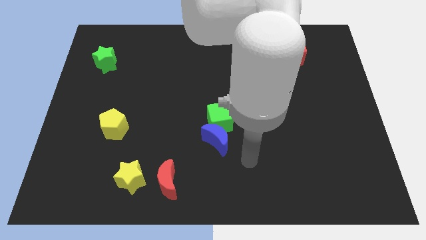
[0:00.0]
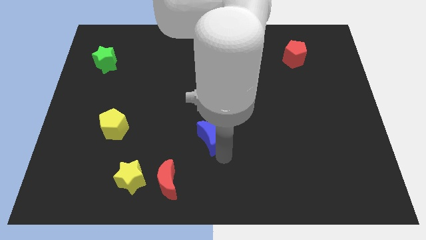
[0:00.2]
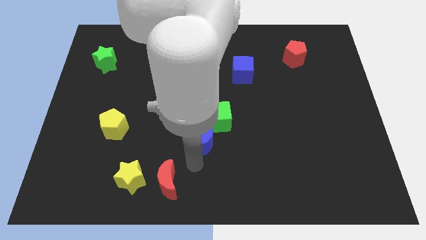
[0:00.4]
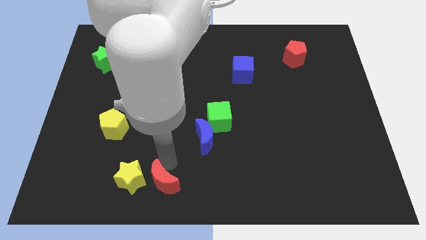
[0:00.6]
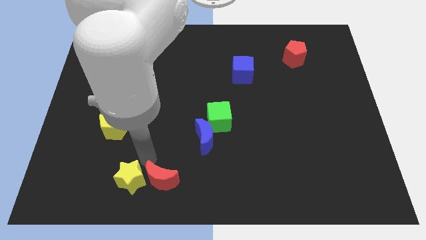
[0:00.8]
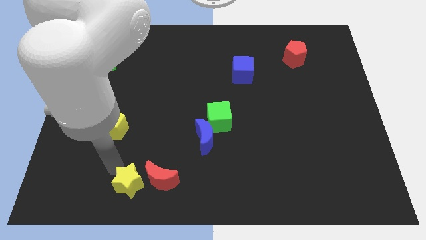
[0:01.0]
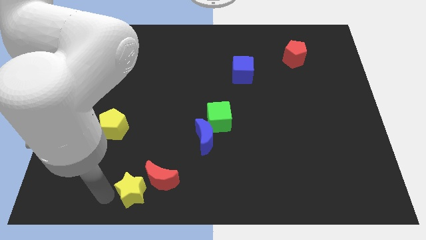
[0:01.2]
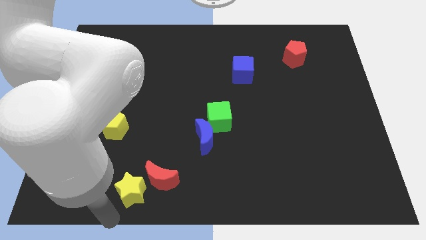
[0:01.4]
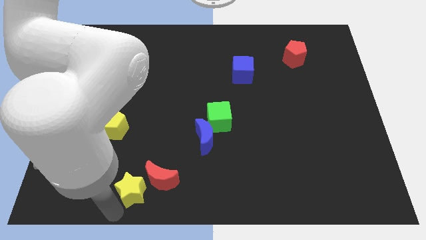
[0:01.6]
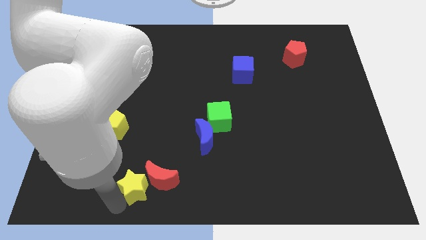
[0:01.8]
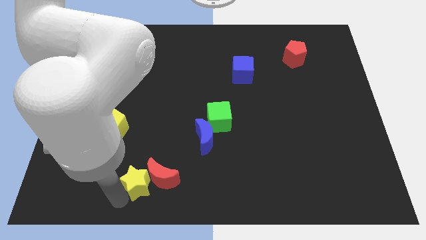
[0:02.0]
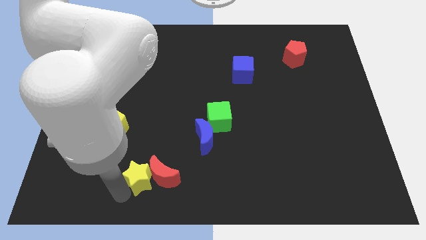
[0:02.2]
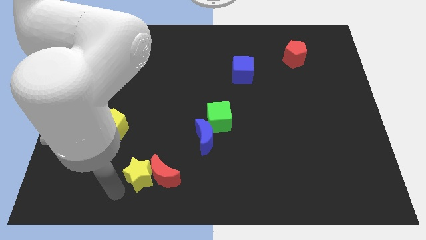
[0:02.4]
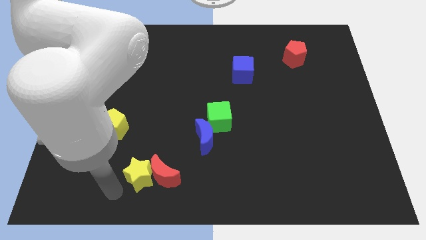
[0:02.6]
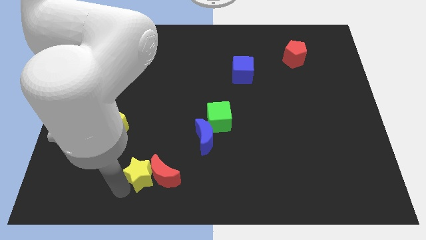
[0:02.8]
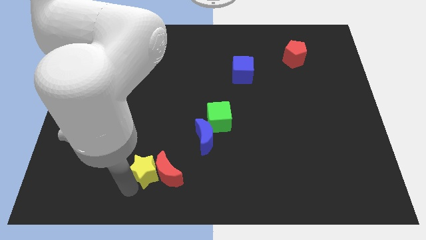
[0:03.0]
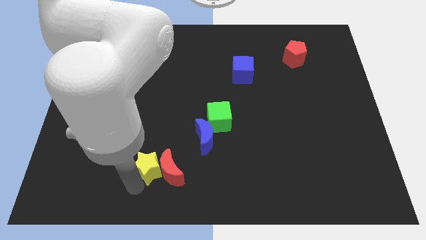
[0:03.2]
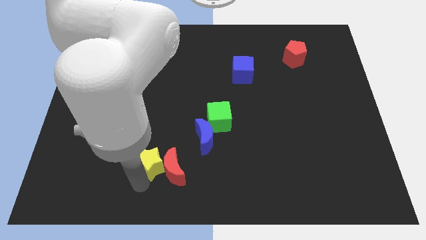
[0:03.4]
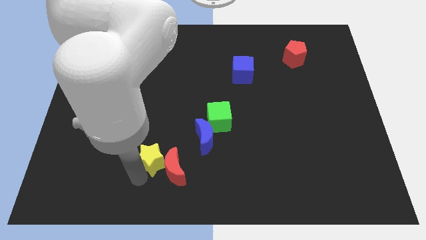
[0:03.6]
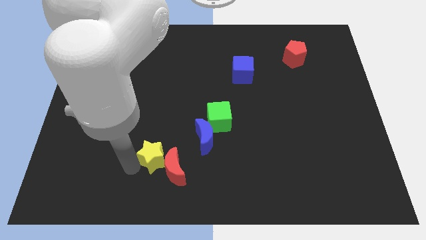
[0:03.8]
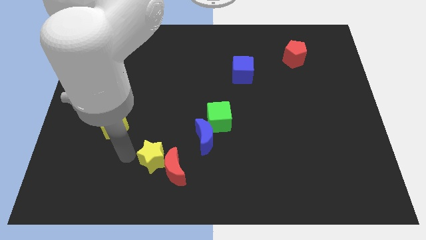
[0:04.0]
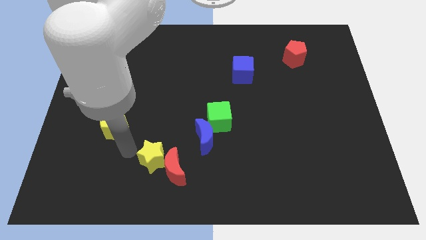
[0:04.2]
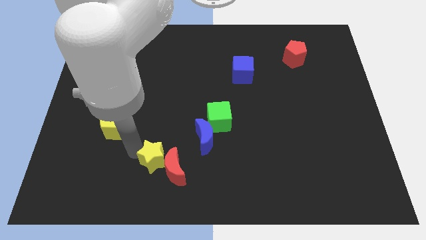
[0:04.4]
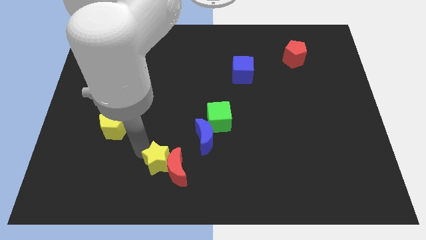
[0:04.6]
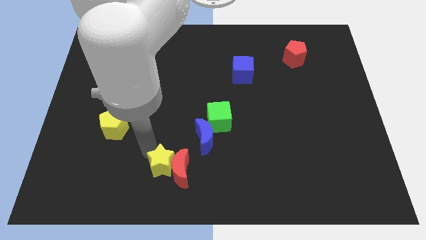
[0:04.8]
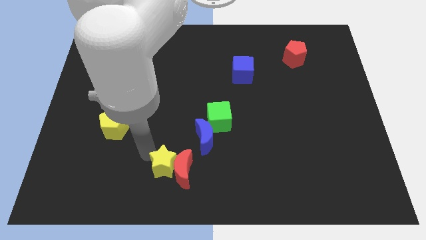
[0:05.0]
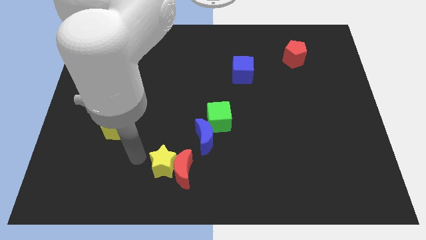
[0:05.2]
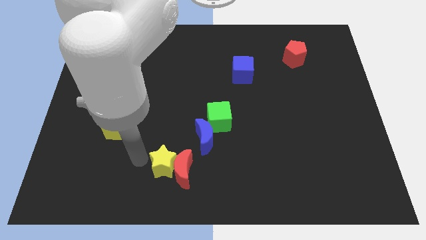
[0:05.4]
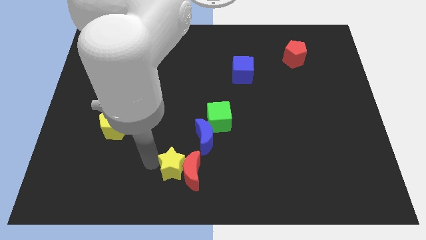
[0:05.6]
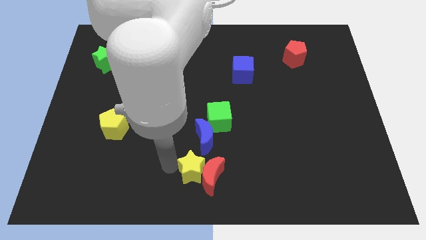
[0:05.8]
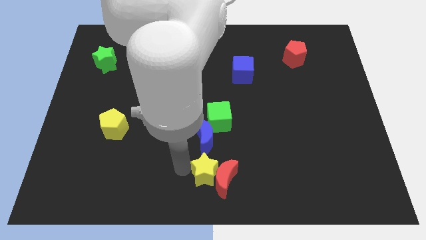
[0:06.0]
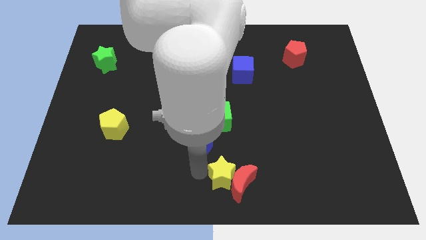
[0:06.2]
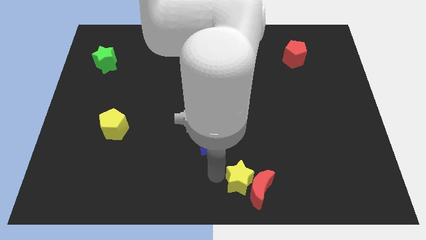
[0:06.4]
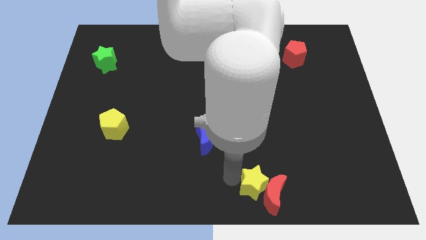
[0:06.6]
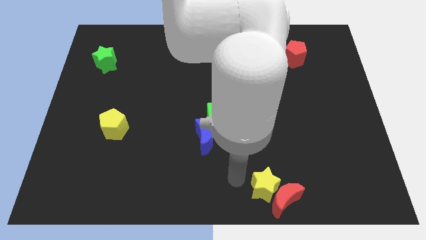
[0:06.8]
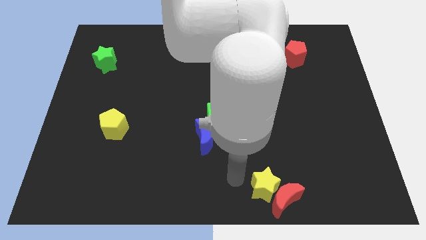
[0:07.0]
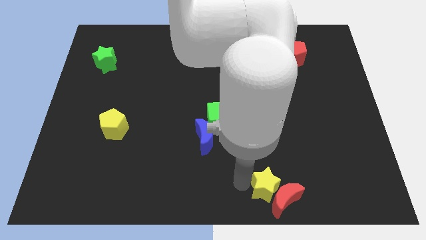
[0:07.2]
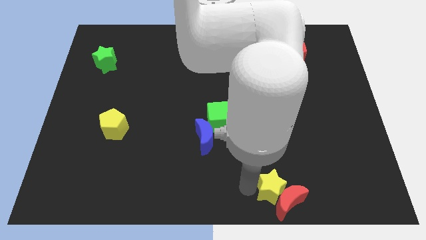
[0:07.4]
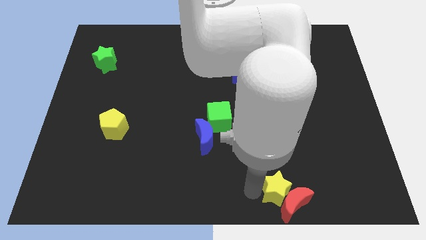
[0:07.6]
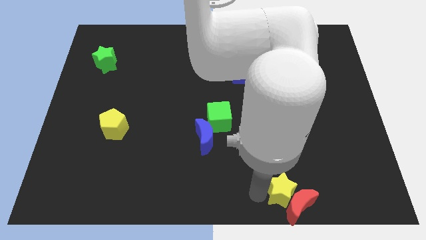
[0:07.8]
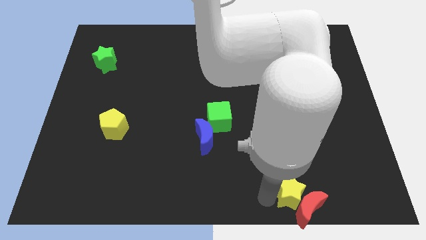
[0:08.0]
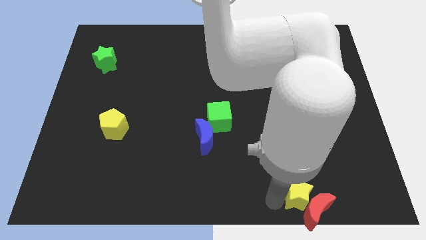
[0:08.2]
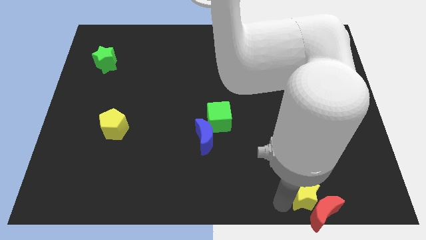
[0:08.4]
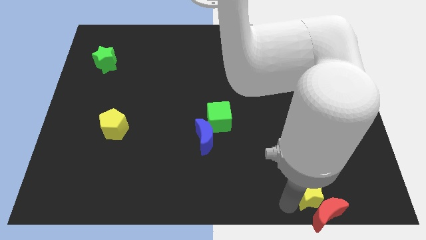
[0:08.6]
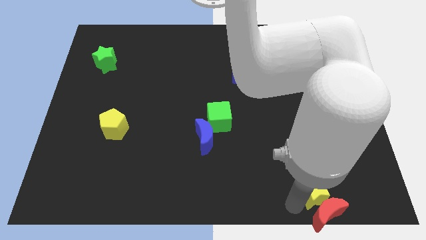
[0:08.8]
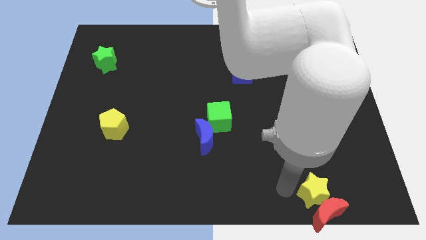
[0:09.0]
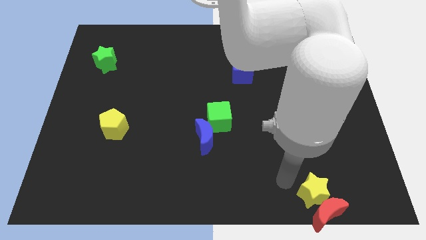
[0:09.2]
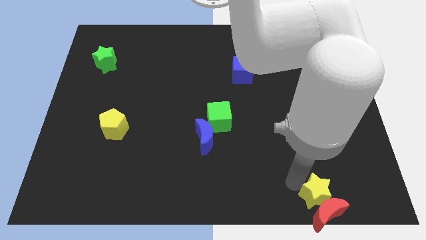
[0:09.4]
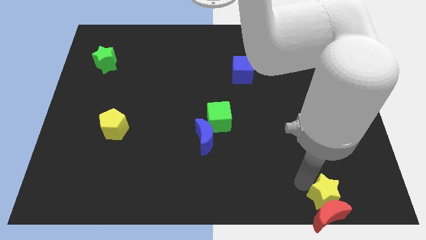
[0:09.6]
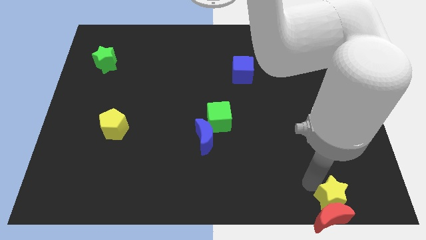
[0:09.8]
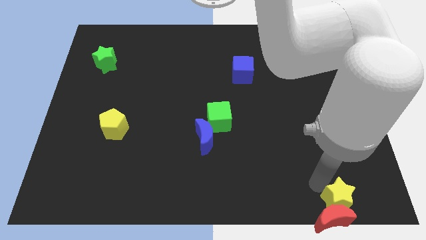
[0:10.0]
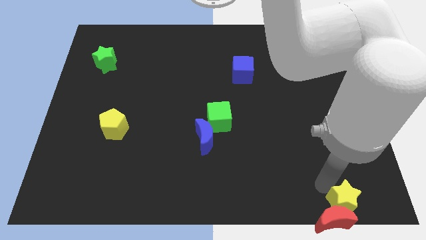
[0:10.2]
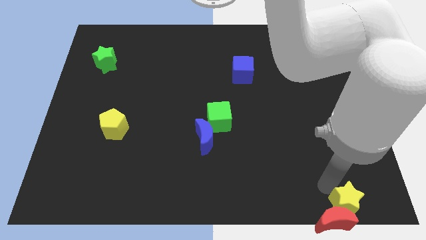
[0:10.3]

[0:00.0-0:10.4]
move the yellow star to the bottom right

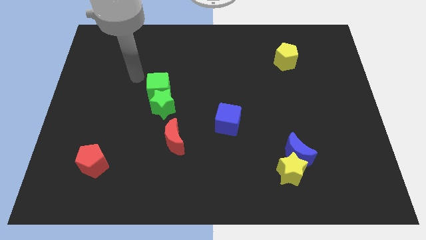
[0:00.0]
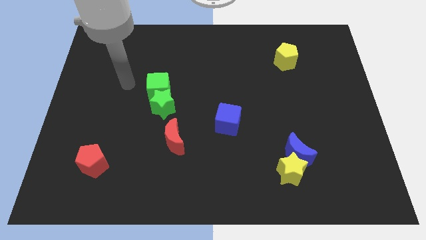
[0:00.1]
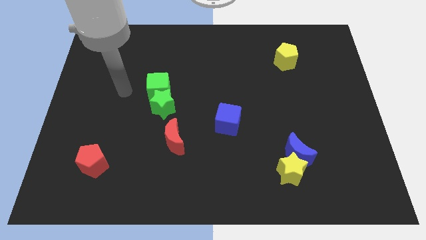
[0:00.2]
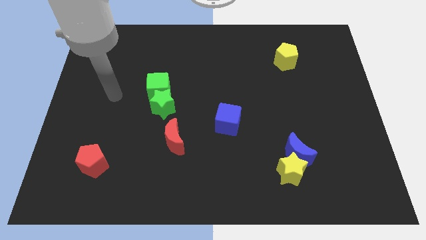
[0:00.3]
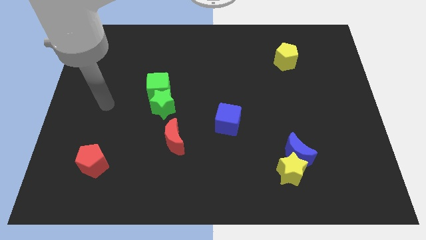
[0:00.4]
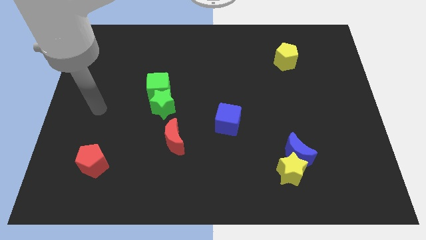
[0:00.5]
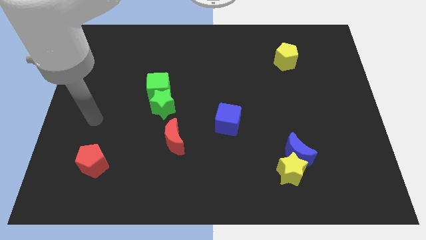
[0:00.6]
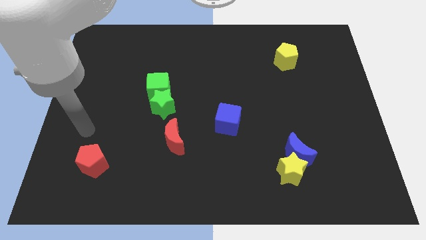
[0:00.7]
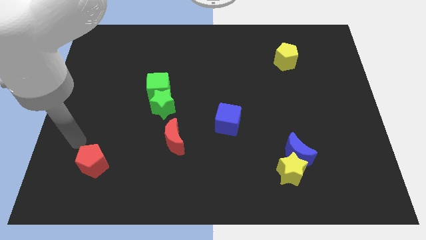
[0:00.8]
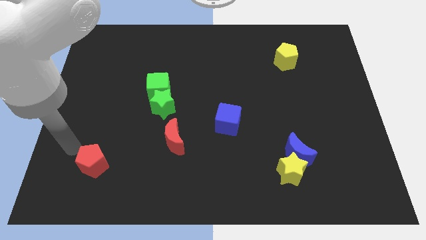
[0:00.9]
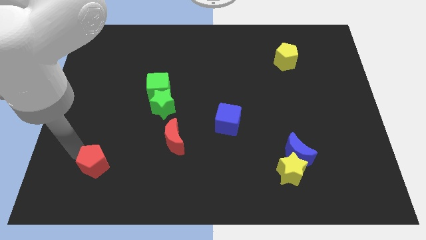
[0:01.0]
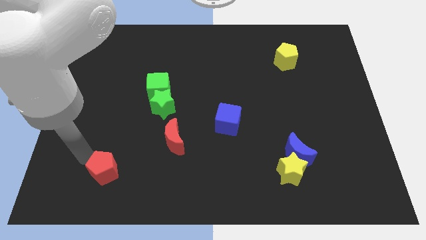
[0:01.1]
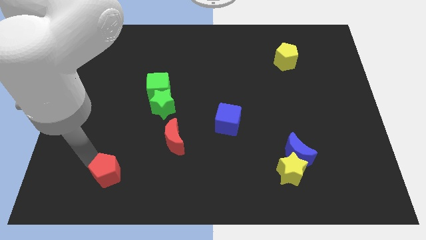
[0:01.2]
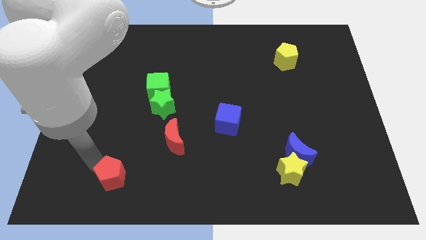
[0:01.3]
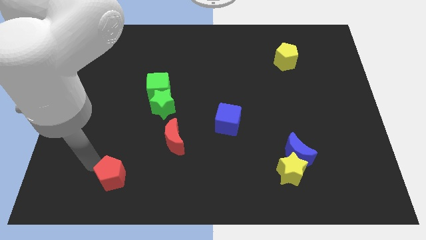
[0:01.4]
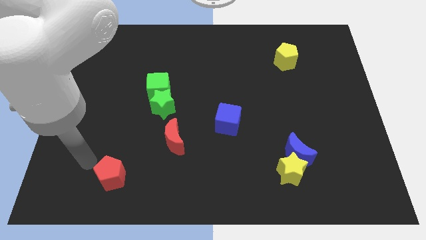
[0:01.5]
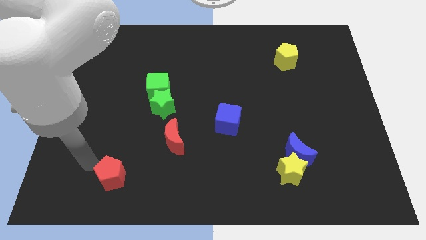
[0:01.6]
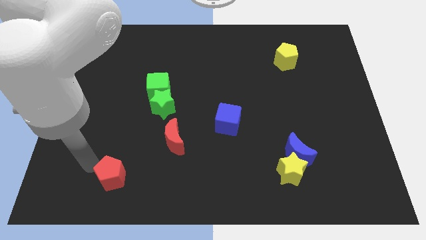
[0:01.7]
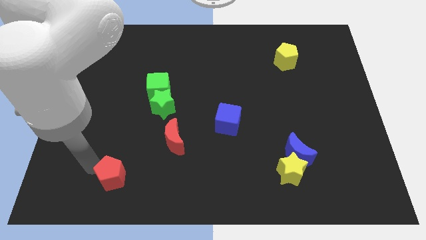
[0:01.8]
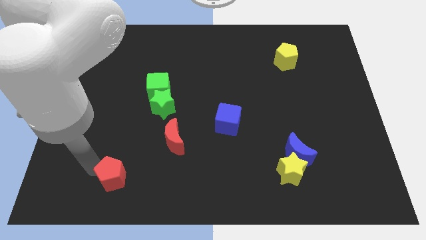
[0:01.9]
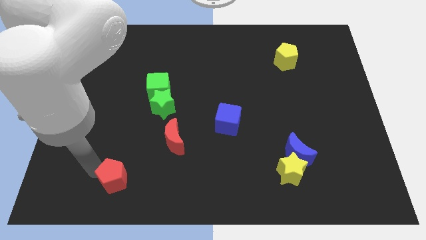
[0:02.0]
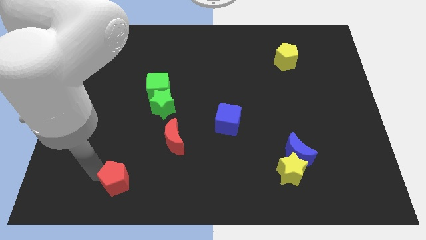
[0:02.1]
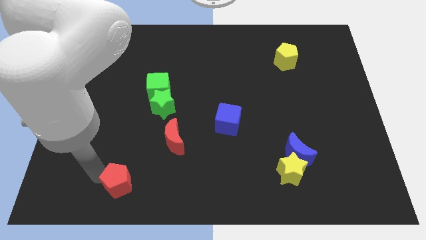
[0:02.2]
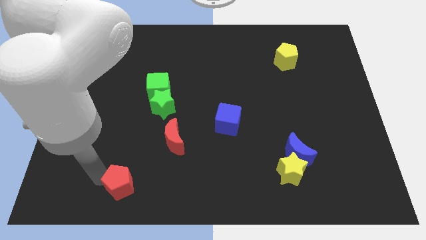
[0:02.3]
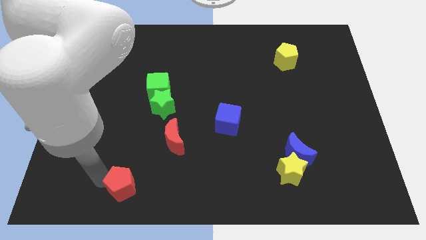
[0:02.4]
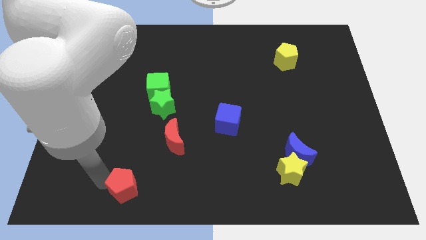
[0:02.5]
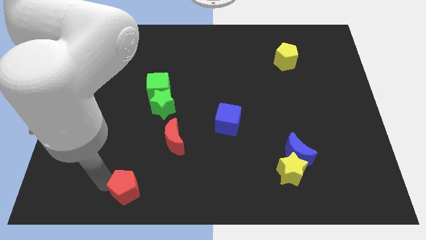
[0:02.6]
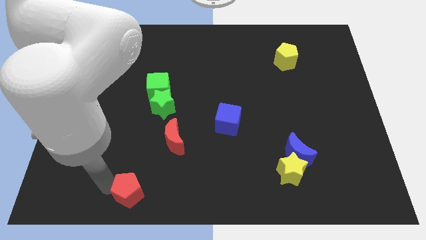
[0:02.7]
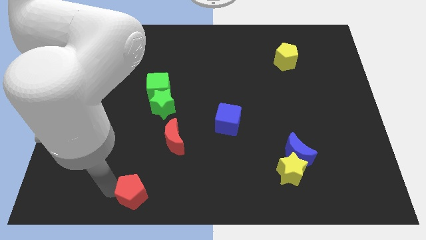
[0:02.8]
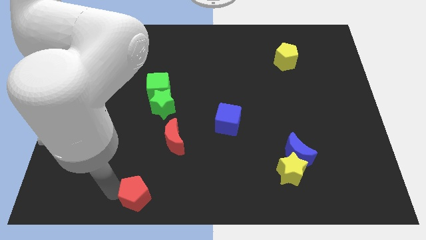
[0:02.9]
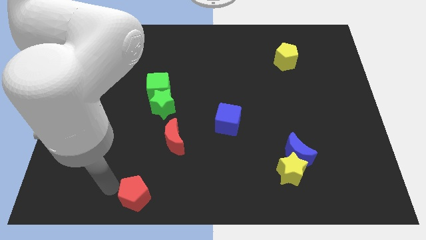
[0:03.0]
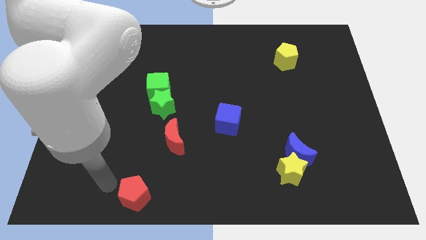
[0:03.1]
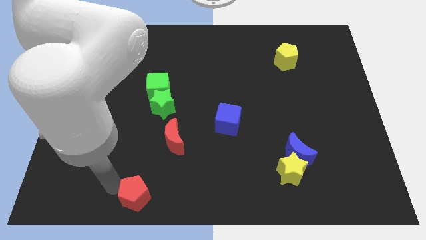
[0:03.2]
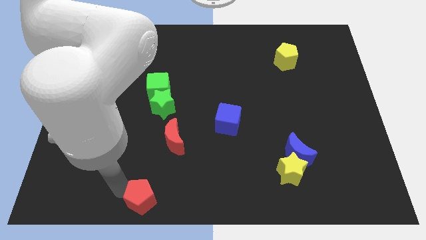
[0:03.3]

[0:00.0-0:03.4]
push the red pentagon to the bottom
